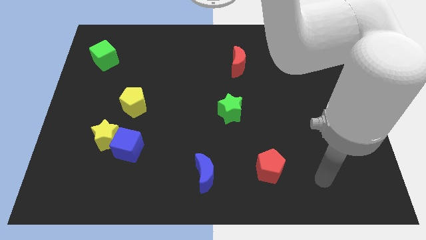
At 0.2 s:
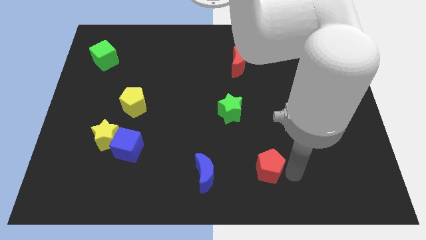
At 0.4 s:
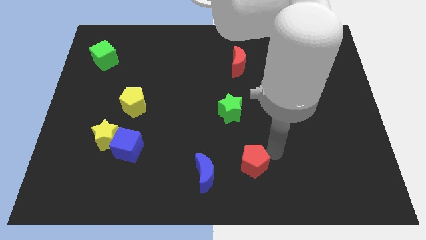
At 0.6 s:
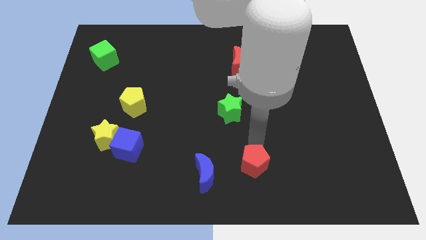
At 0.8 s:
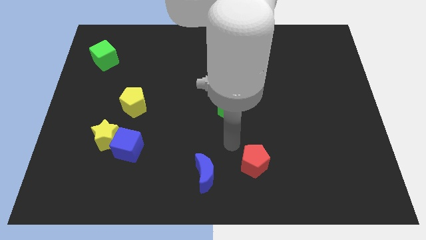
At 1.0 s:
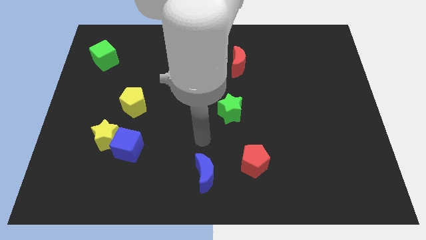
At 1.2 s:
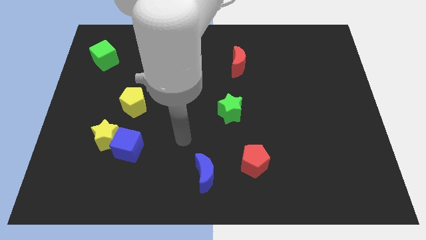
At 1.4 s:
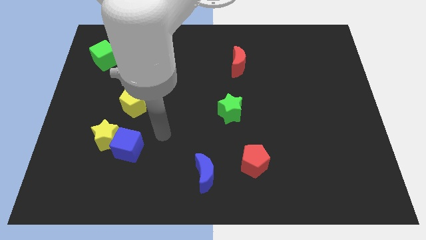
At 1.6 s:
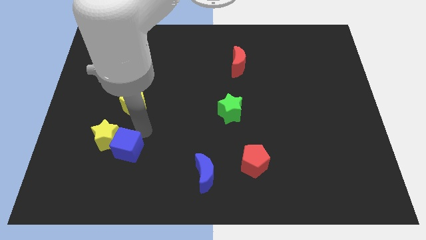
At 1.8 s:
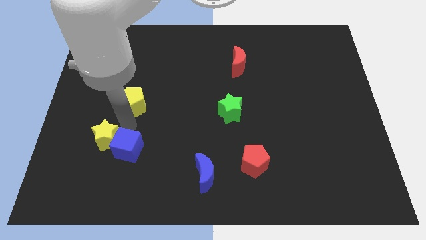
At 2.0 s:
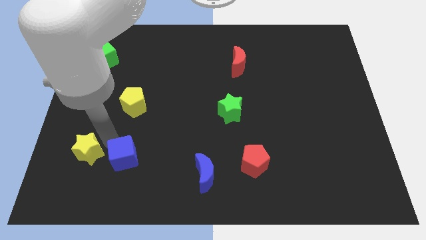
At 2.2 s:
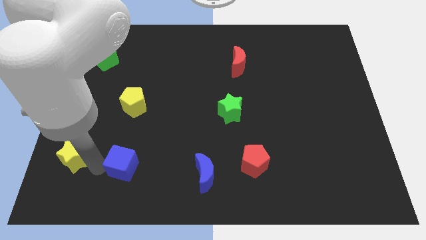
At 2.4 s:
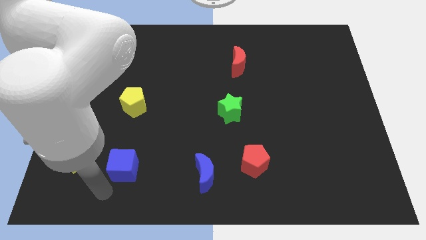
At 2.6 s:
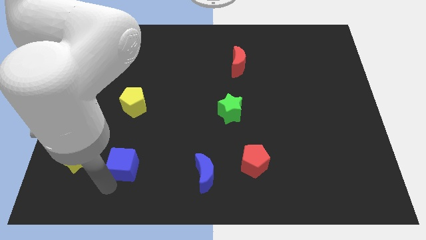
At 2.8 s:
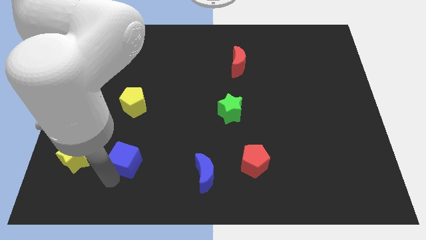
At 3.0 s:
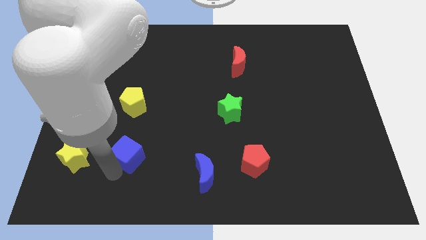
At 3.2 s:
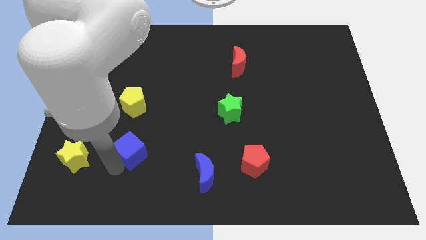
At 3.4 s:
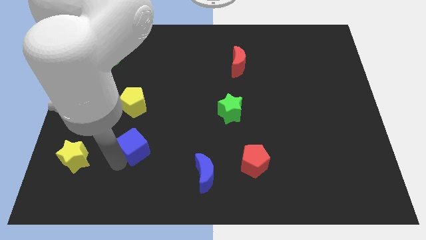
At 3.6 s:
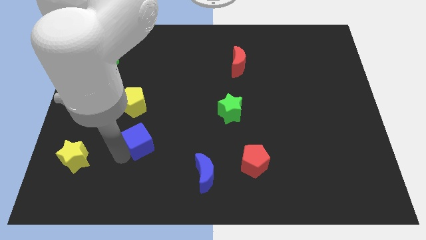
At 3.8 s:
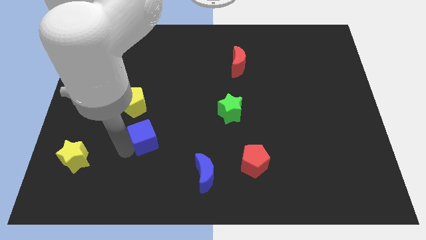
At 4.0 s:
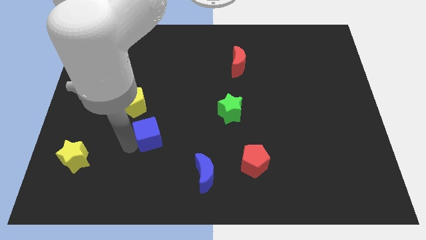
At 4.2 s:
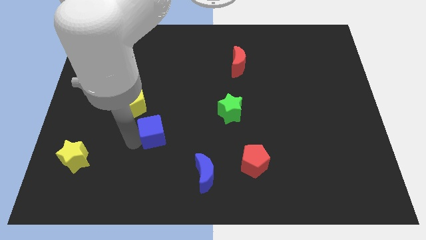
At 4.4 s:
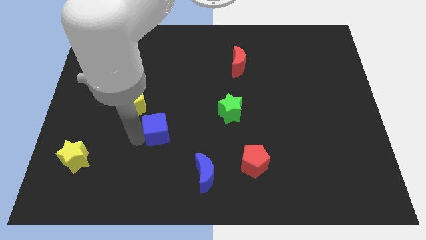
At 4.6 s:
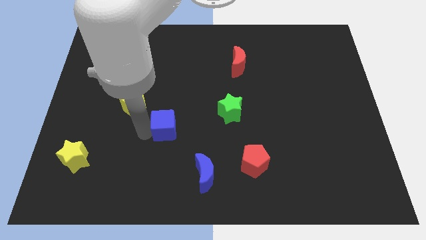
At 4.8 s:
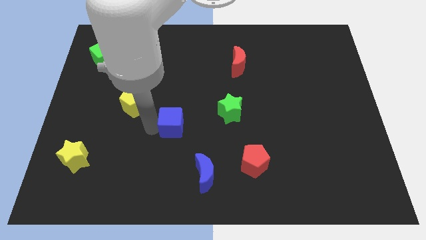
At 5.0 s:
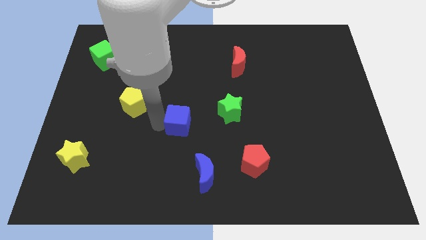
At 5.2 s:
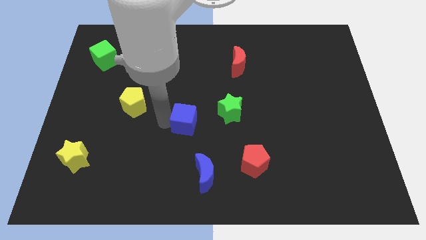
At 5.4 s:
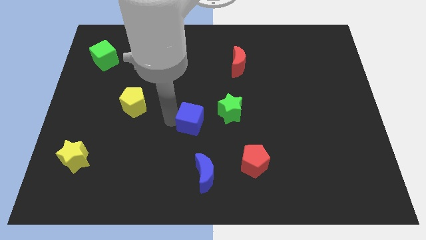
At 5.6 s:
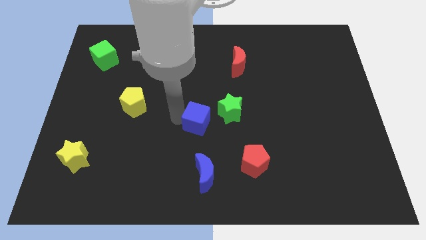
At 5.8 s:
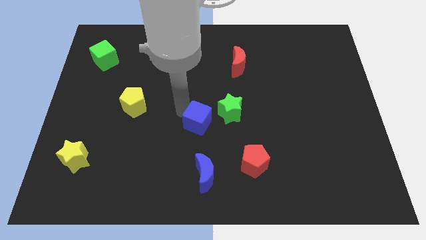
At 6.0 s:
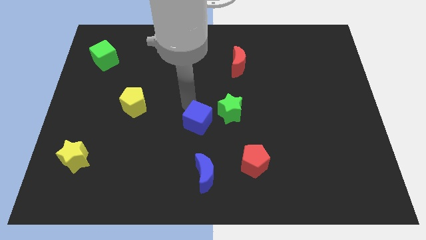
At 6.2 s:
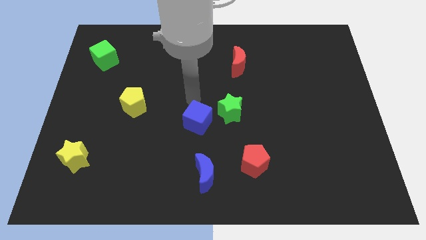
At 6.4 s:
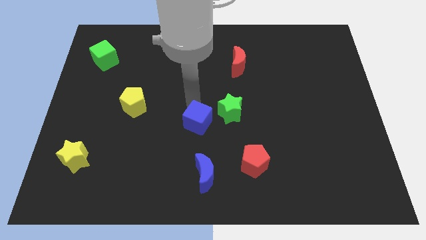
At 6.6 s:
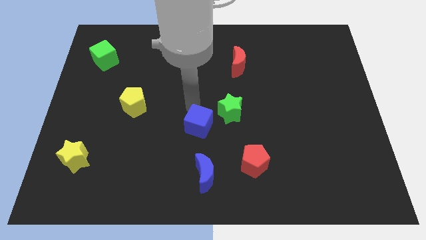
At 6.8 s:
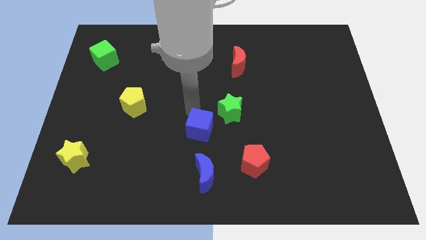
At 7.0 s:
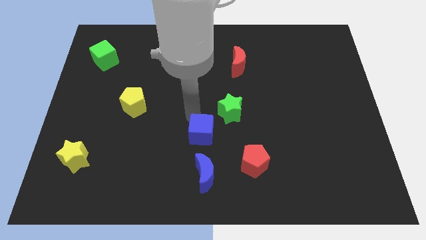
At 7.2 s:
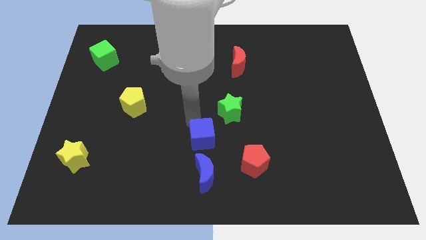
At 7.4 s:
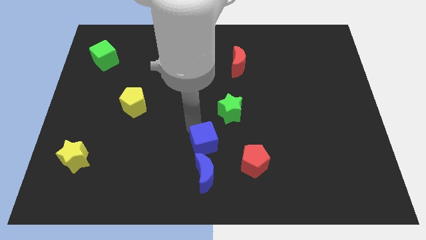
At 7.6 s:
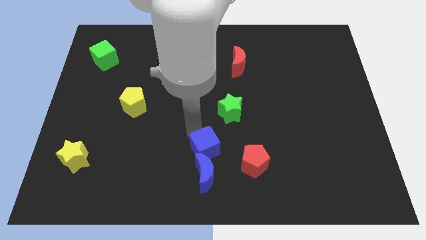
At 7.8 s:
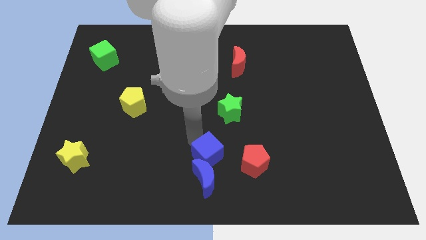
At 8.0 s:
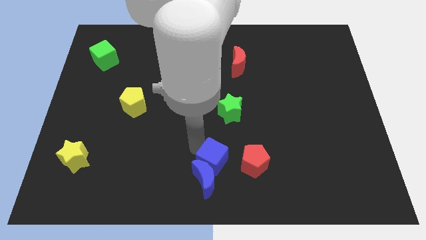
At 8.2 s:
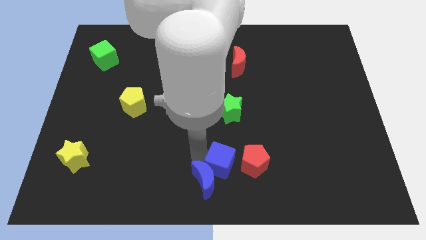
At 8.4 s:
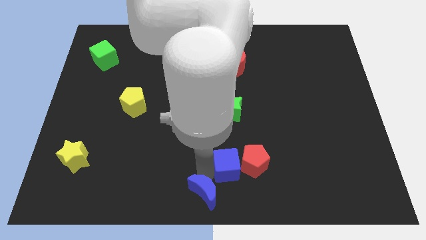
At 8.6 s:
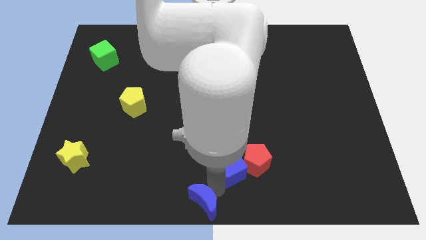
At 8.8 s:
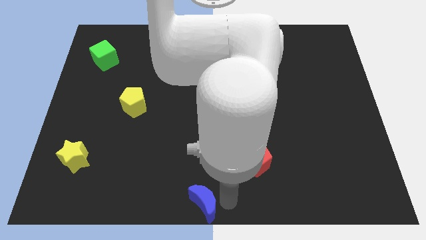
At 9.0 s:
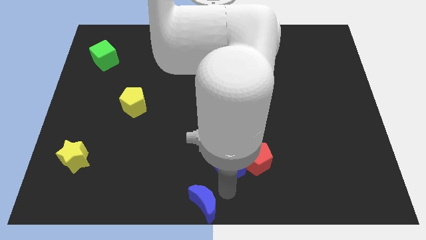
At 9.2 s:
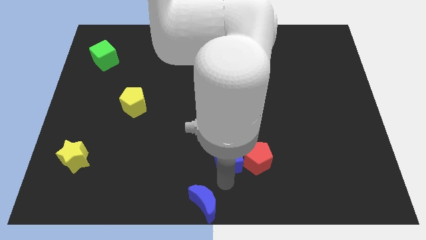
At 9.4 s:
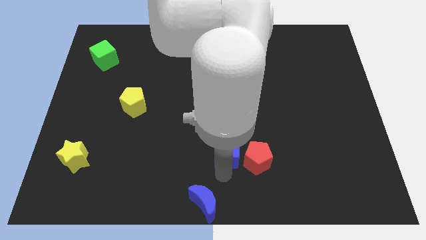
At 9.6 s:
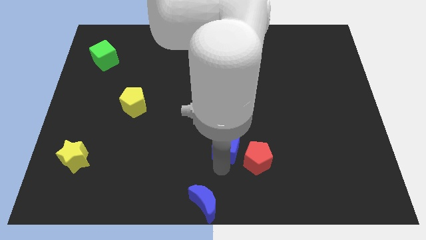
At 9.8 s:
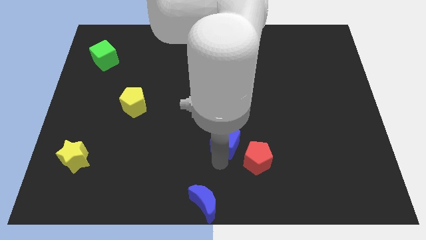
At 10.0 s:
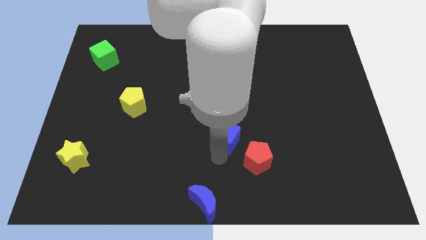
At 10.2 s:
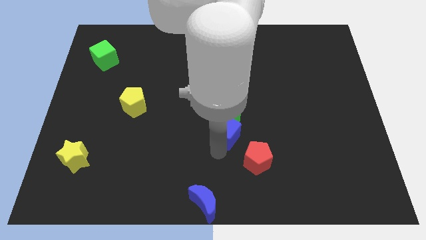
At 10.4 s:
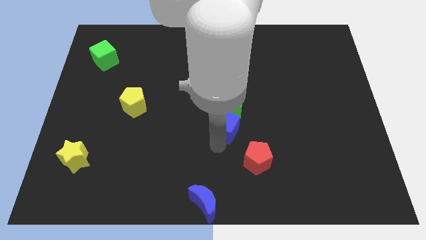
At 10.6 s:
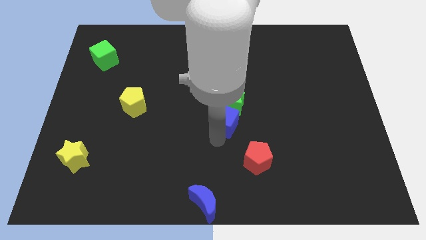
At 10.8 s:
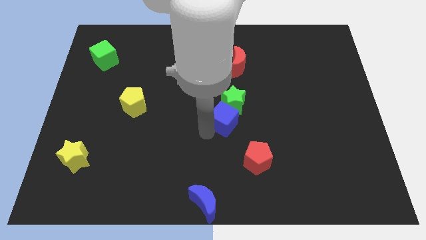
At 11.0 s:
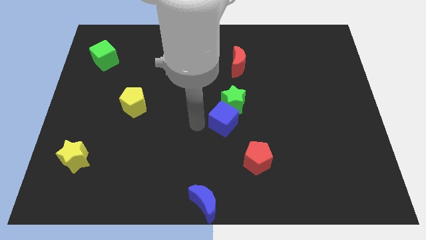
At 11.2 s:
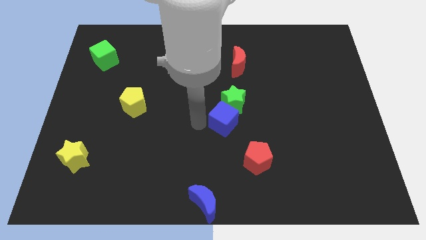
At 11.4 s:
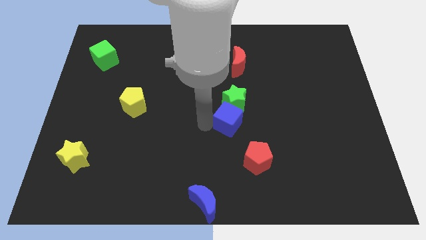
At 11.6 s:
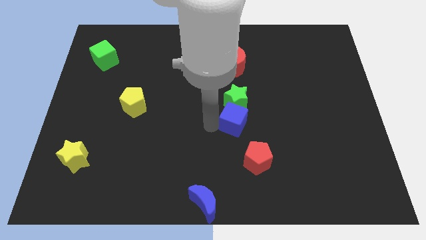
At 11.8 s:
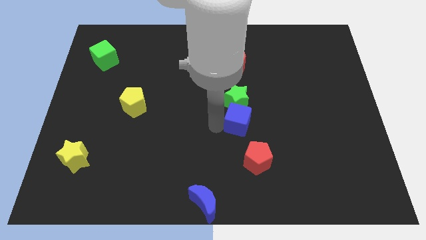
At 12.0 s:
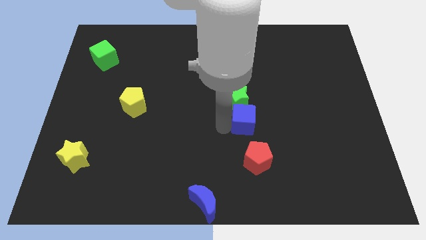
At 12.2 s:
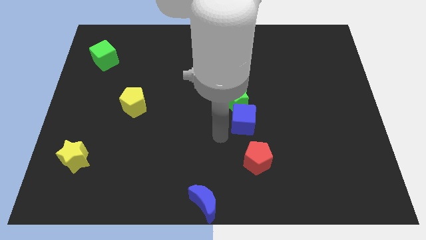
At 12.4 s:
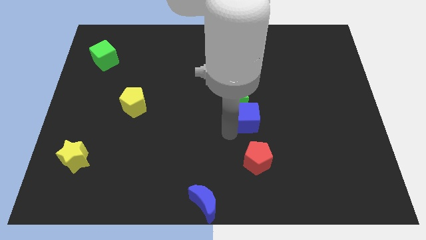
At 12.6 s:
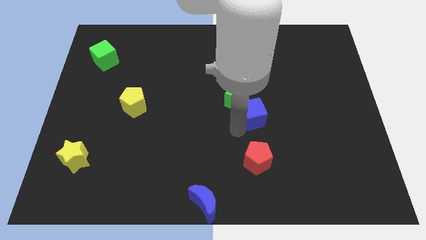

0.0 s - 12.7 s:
slide the blue cube to the right side of the green star

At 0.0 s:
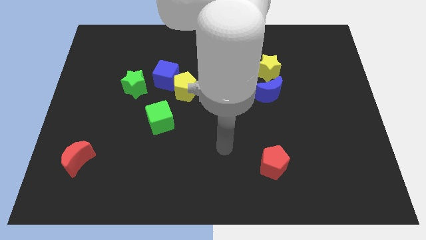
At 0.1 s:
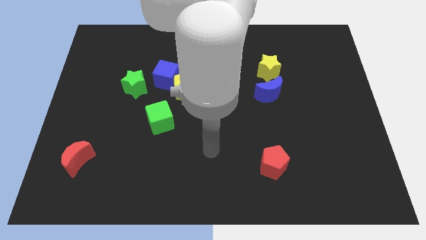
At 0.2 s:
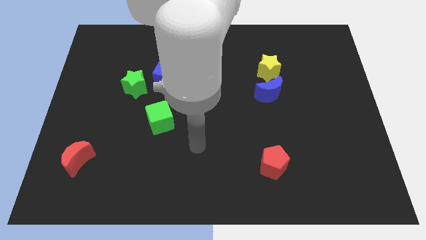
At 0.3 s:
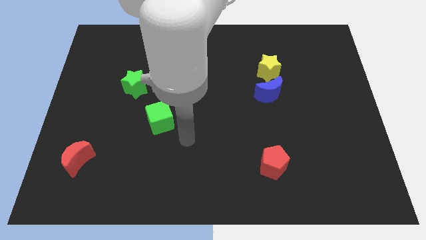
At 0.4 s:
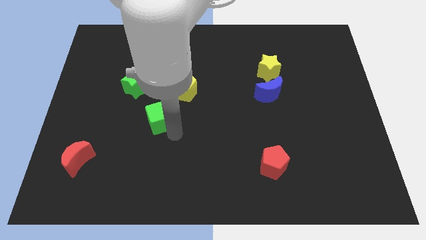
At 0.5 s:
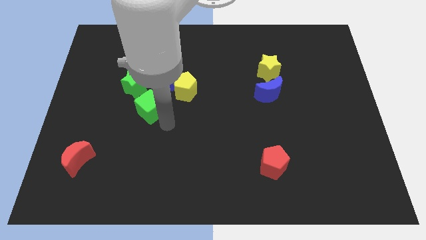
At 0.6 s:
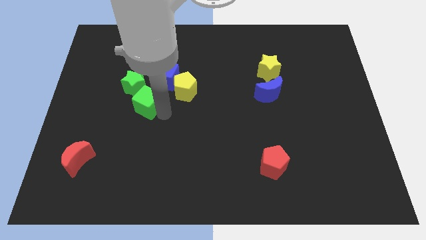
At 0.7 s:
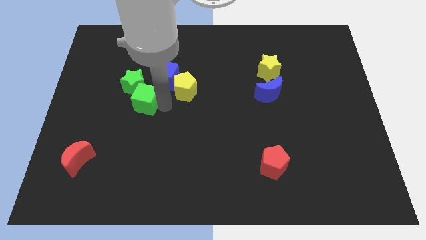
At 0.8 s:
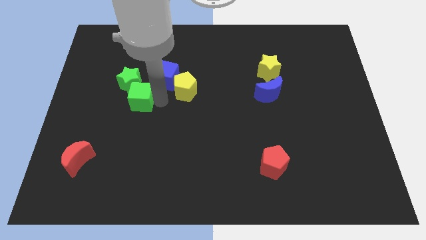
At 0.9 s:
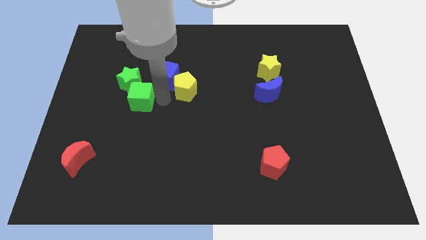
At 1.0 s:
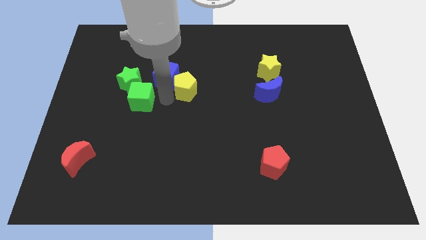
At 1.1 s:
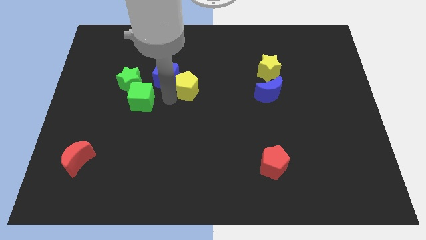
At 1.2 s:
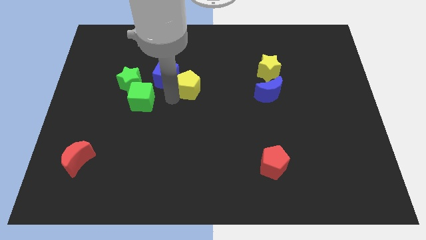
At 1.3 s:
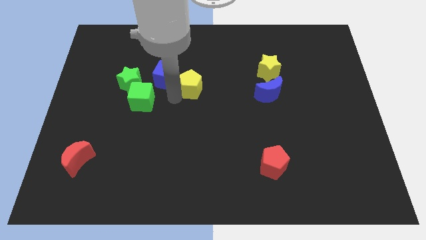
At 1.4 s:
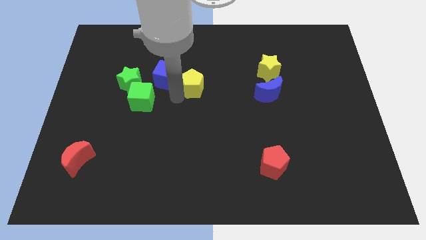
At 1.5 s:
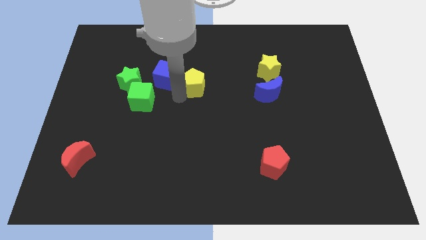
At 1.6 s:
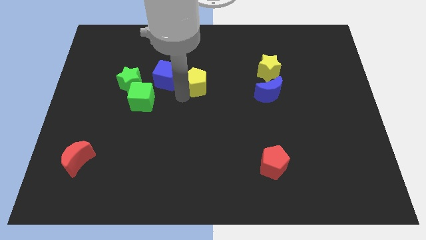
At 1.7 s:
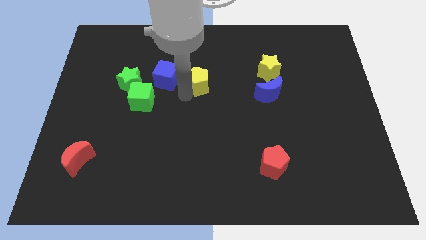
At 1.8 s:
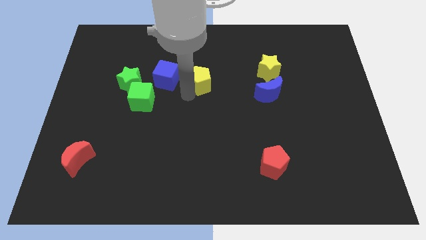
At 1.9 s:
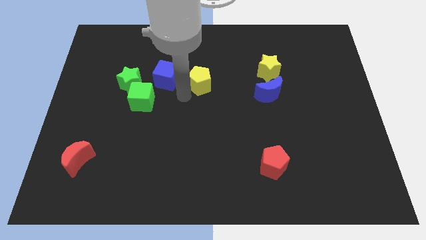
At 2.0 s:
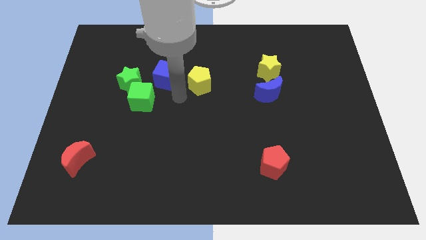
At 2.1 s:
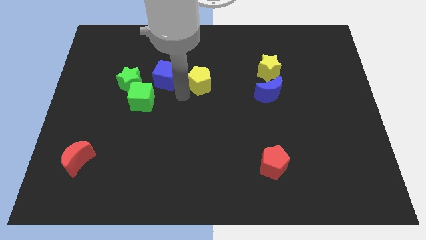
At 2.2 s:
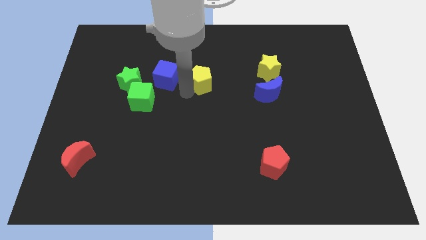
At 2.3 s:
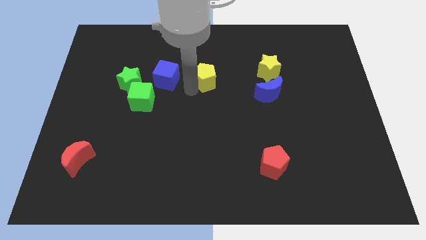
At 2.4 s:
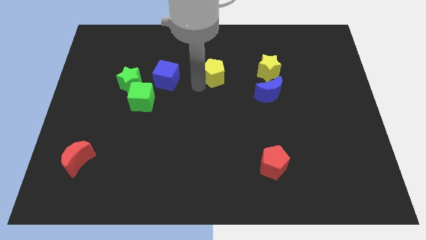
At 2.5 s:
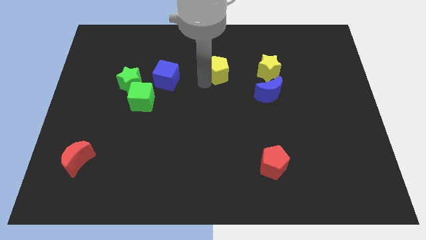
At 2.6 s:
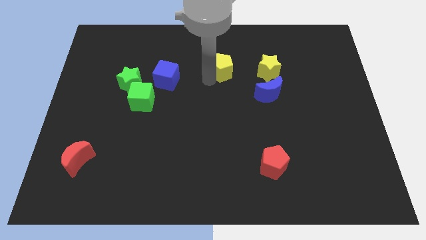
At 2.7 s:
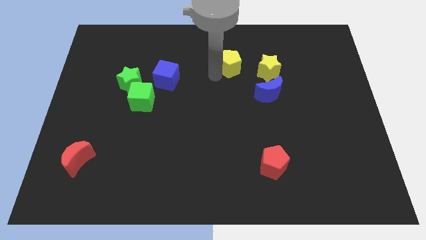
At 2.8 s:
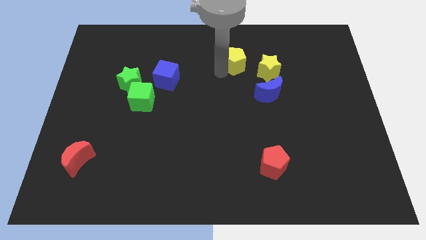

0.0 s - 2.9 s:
slide the yellow pentagon to the top left side of the yellow star
